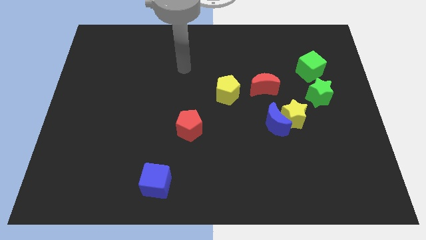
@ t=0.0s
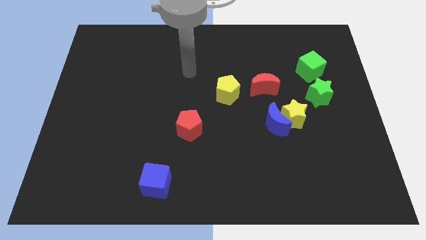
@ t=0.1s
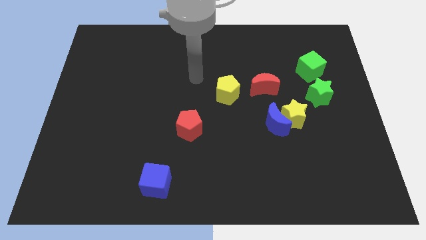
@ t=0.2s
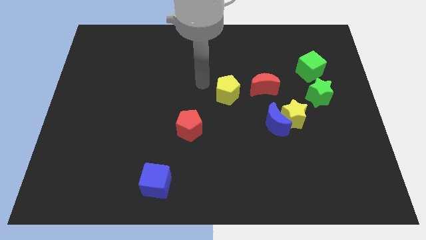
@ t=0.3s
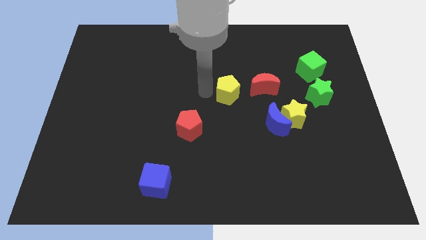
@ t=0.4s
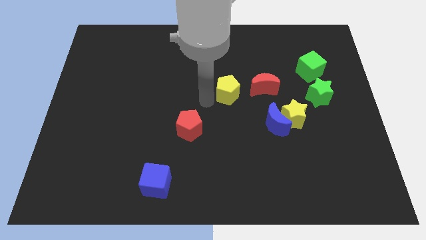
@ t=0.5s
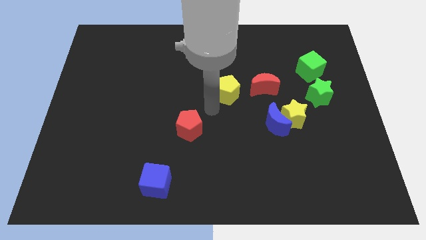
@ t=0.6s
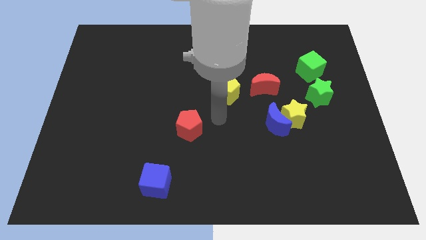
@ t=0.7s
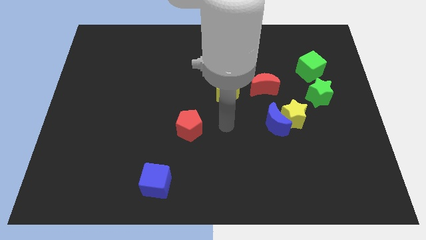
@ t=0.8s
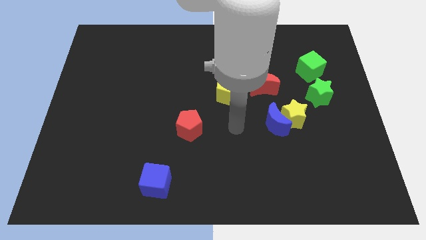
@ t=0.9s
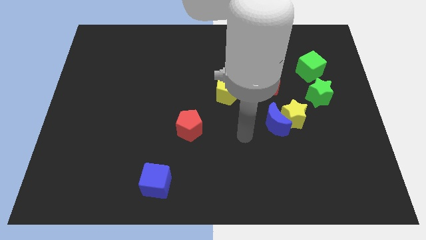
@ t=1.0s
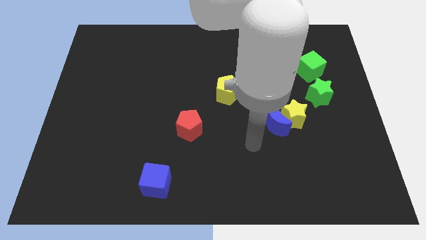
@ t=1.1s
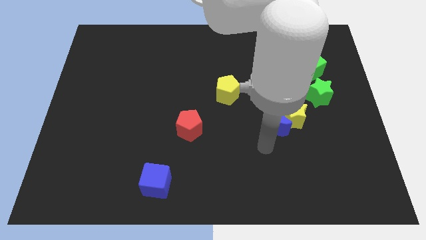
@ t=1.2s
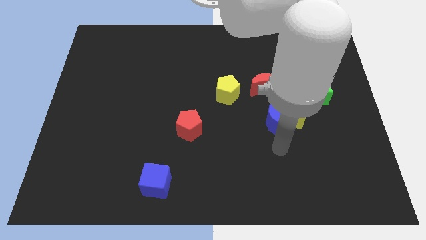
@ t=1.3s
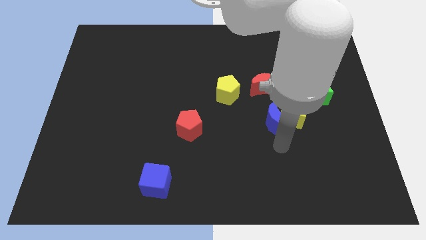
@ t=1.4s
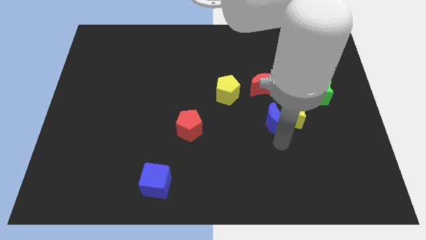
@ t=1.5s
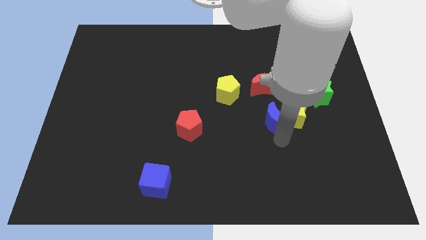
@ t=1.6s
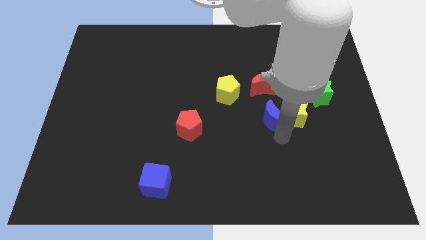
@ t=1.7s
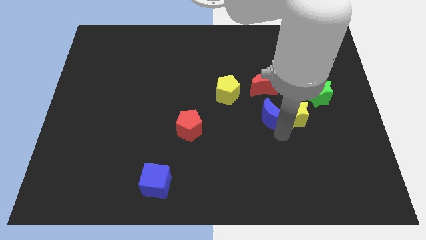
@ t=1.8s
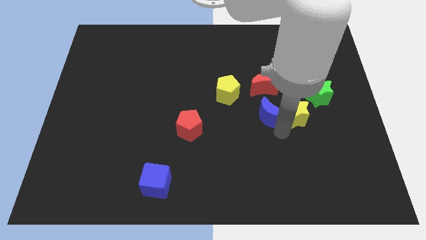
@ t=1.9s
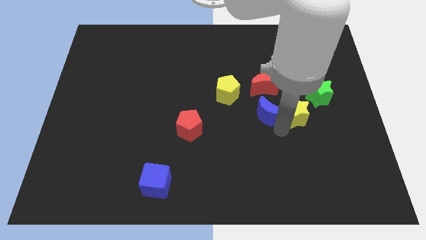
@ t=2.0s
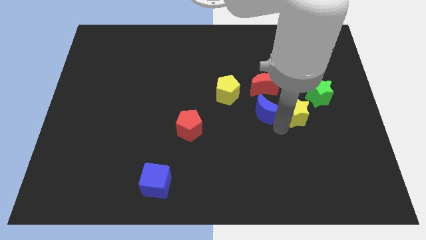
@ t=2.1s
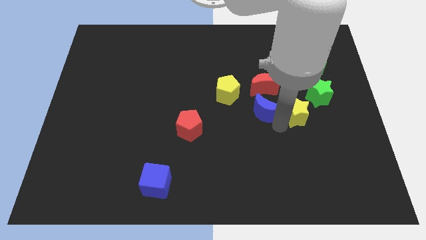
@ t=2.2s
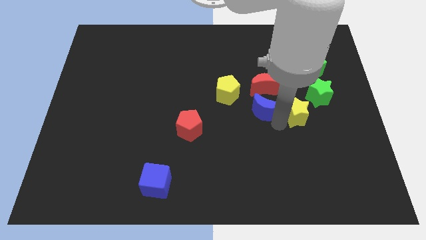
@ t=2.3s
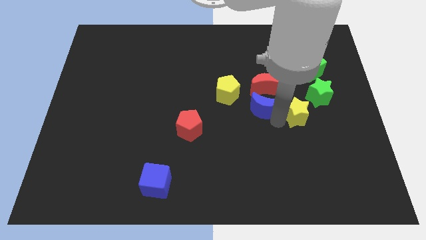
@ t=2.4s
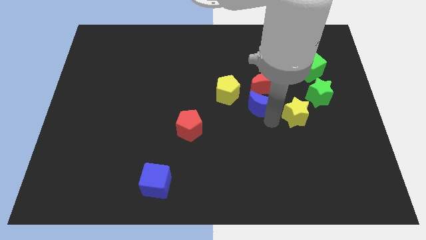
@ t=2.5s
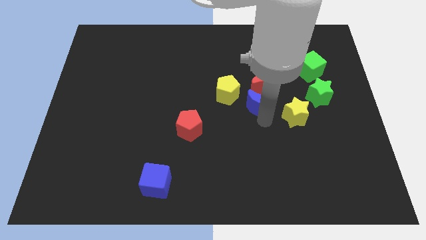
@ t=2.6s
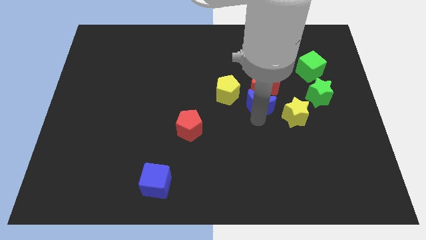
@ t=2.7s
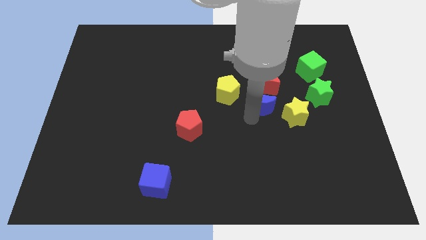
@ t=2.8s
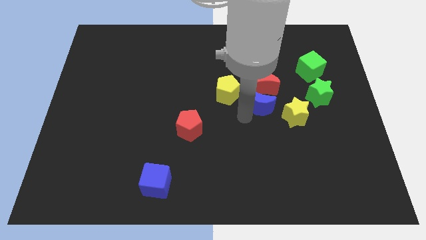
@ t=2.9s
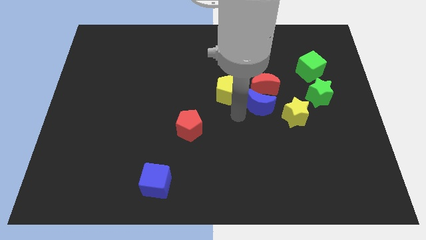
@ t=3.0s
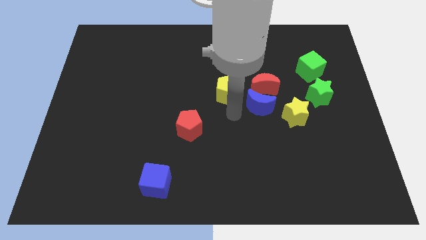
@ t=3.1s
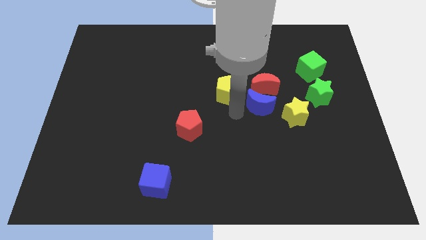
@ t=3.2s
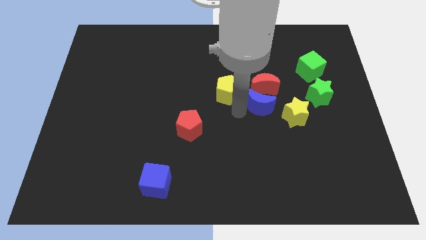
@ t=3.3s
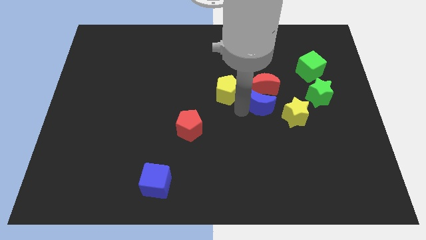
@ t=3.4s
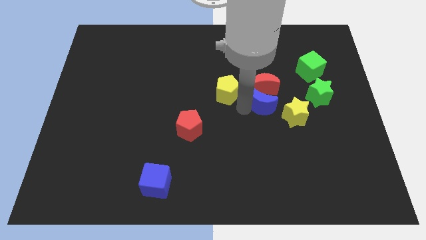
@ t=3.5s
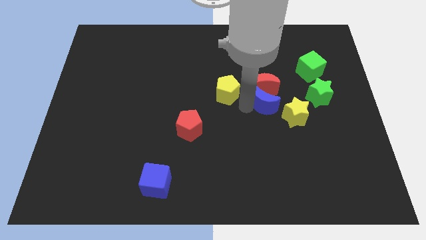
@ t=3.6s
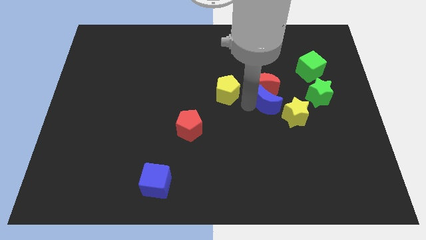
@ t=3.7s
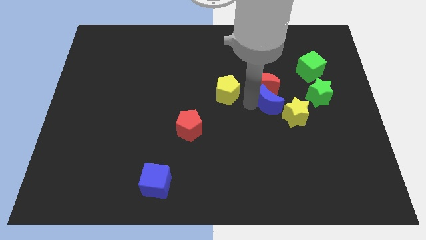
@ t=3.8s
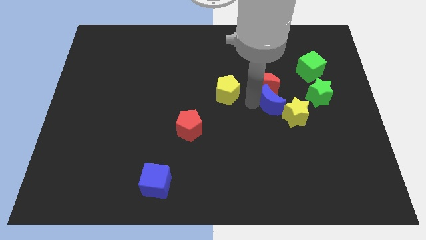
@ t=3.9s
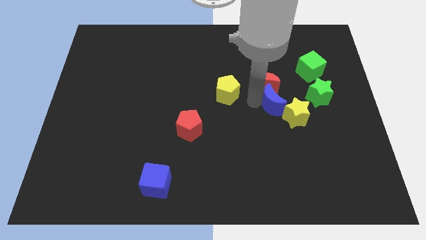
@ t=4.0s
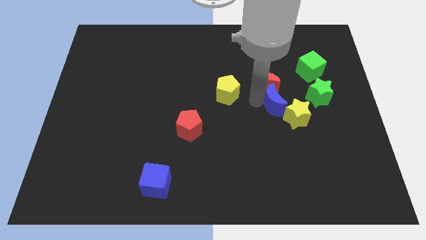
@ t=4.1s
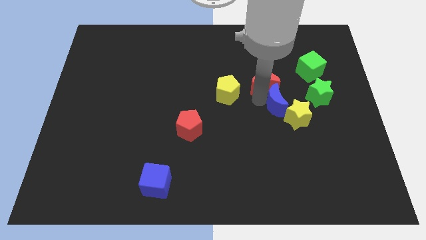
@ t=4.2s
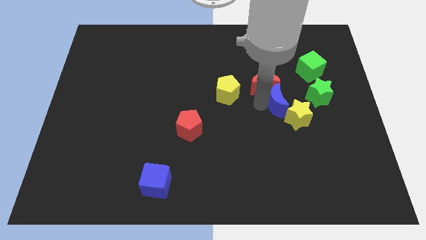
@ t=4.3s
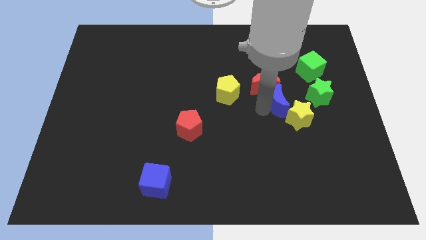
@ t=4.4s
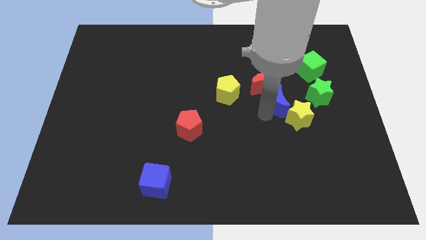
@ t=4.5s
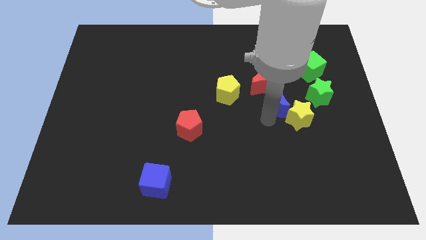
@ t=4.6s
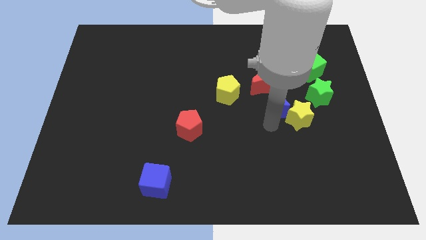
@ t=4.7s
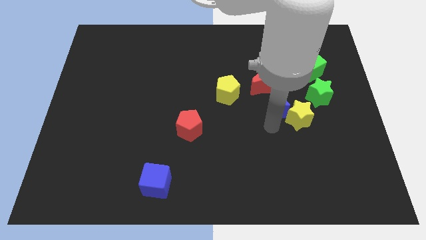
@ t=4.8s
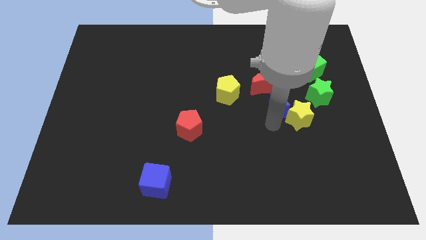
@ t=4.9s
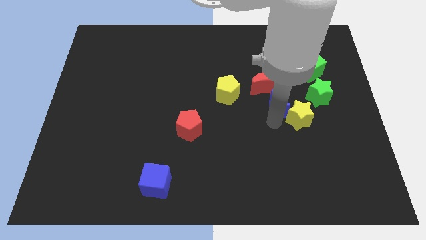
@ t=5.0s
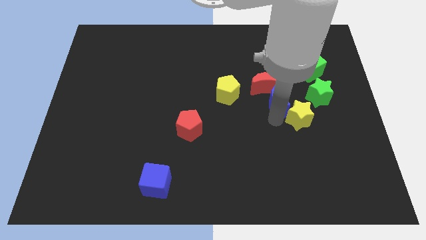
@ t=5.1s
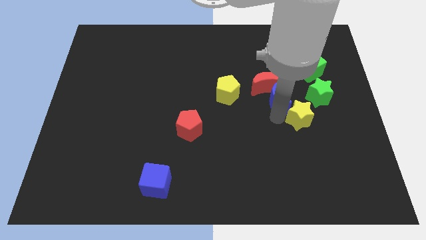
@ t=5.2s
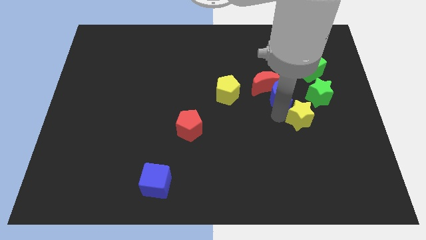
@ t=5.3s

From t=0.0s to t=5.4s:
slide the blue moon a bit upwards

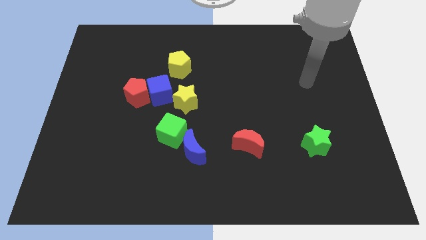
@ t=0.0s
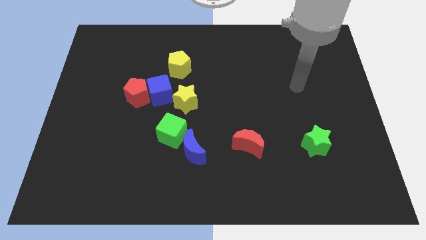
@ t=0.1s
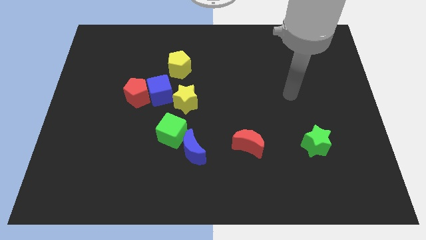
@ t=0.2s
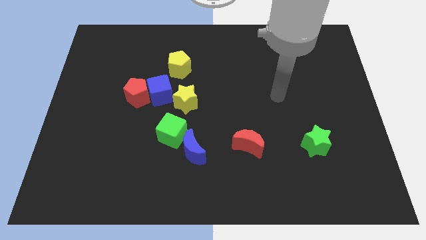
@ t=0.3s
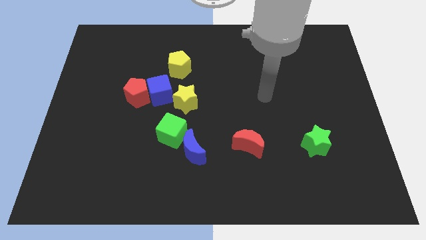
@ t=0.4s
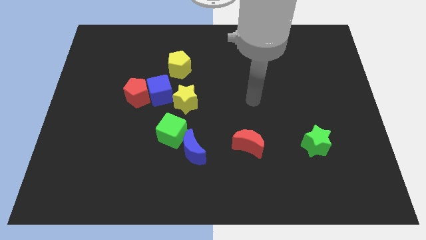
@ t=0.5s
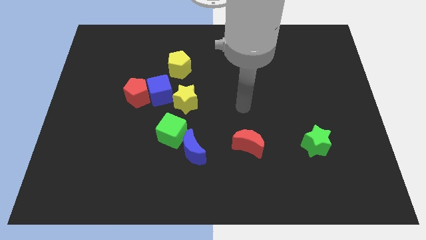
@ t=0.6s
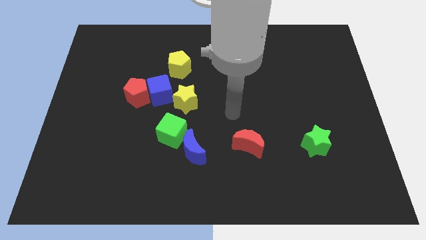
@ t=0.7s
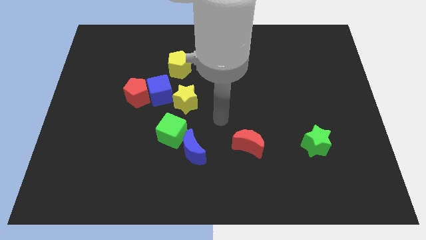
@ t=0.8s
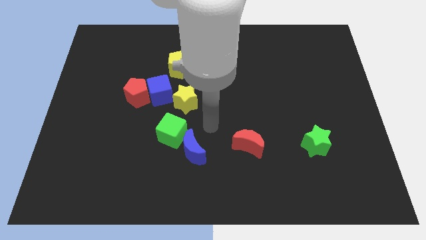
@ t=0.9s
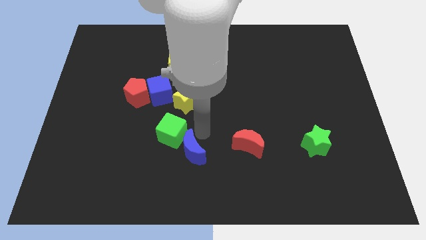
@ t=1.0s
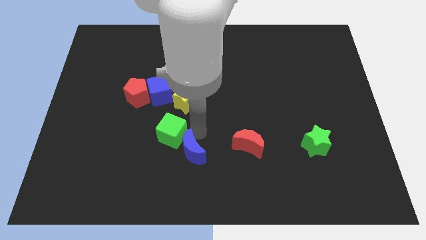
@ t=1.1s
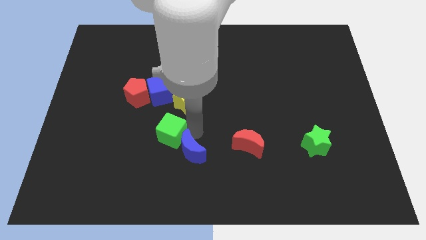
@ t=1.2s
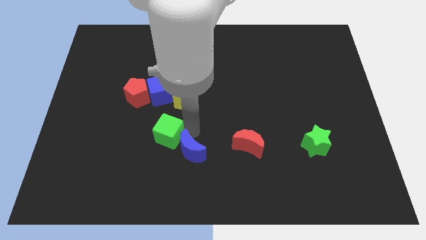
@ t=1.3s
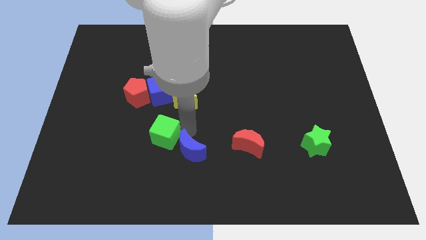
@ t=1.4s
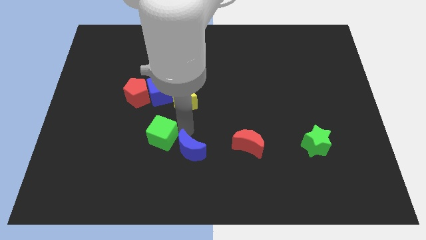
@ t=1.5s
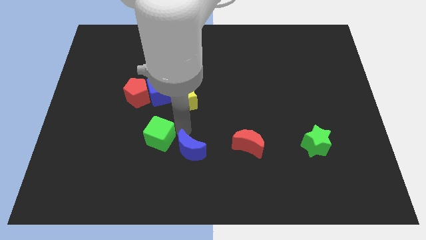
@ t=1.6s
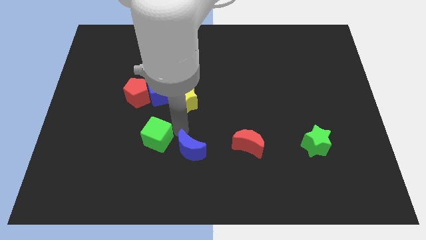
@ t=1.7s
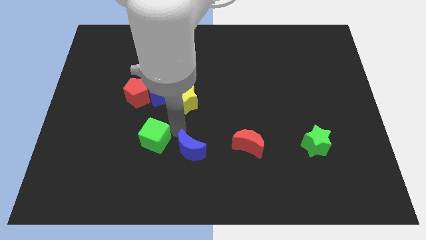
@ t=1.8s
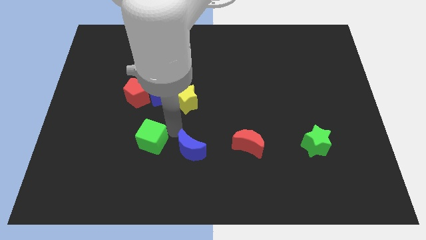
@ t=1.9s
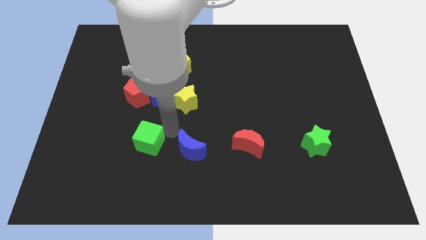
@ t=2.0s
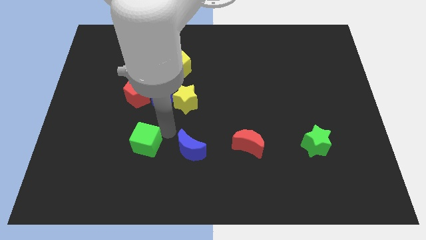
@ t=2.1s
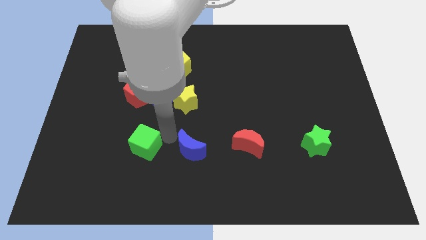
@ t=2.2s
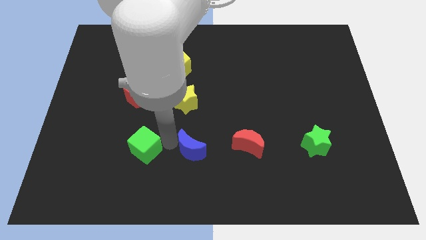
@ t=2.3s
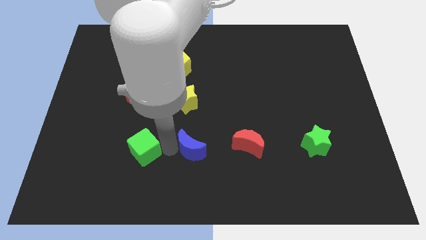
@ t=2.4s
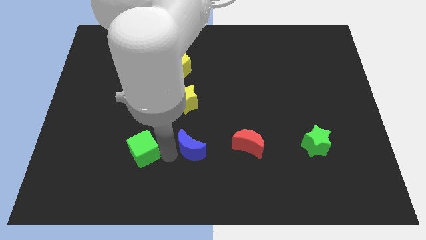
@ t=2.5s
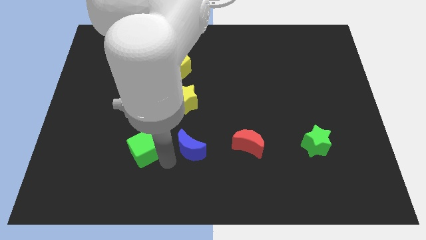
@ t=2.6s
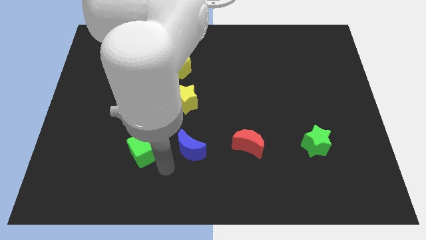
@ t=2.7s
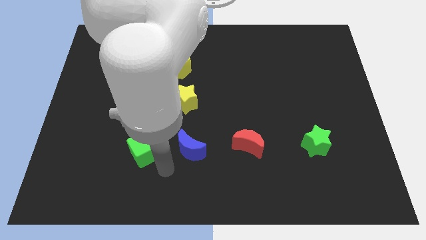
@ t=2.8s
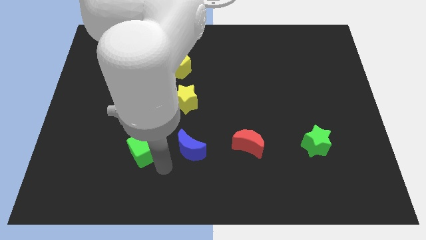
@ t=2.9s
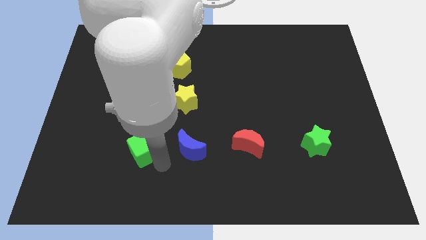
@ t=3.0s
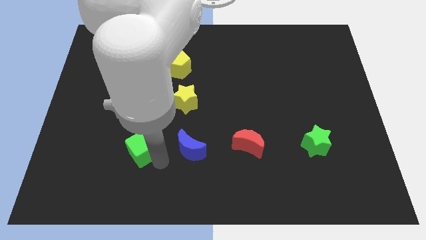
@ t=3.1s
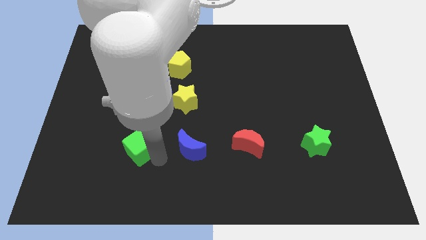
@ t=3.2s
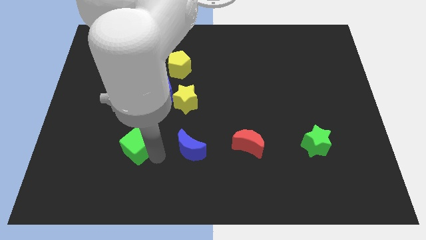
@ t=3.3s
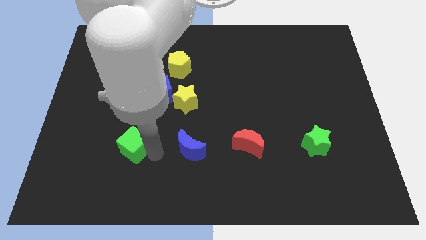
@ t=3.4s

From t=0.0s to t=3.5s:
slide the green cube a little bit left
